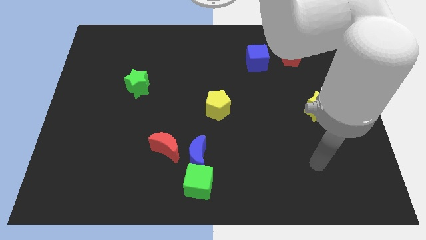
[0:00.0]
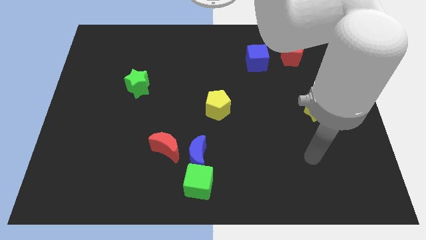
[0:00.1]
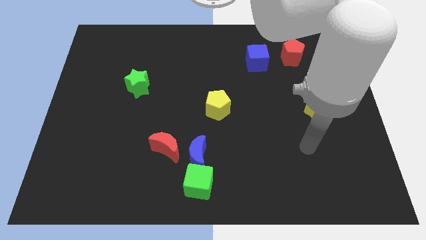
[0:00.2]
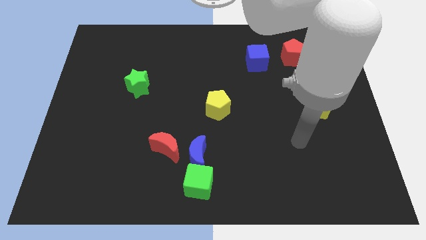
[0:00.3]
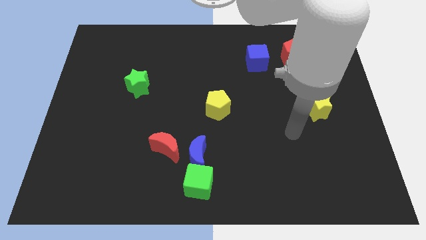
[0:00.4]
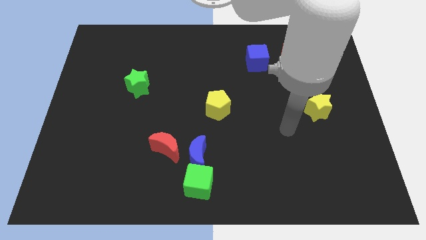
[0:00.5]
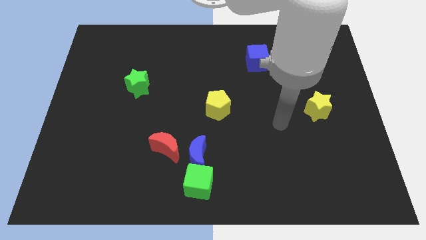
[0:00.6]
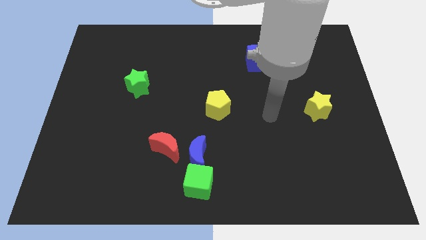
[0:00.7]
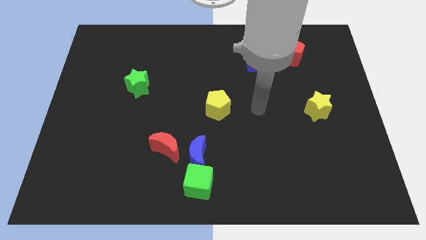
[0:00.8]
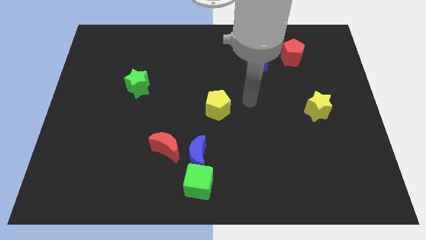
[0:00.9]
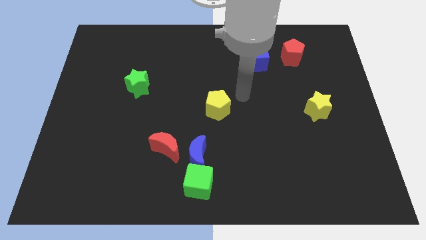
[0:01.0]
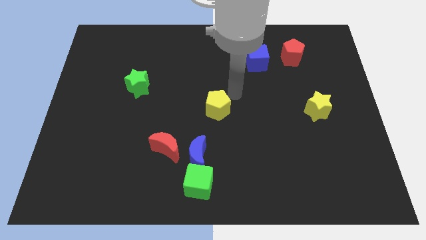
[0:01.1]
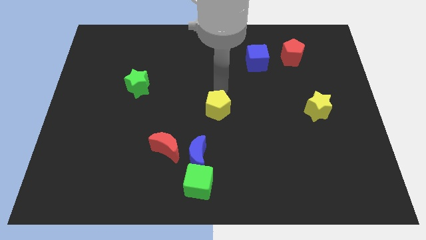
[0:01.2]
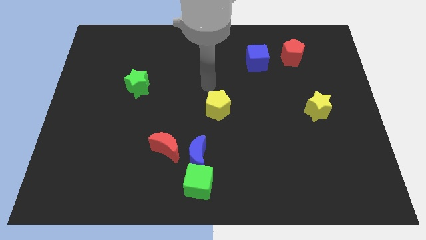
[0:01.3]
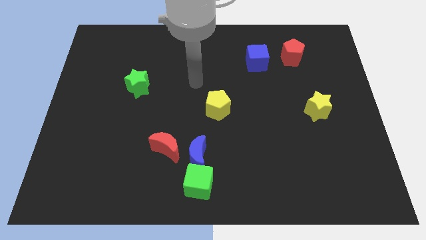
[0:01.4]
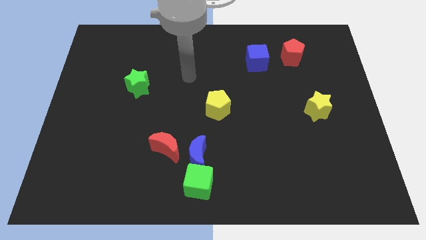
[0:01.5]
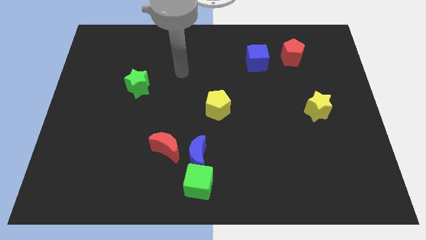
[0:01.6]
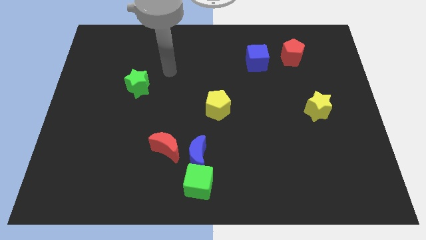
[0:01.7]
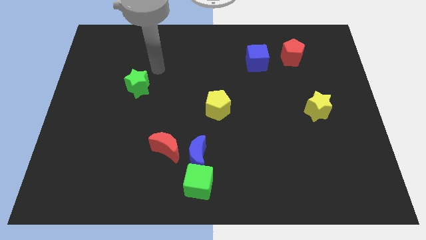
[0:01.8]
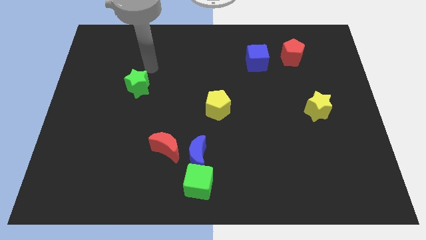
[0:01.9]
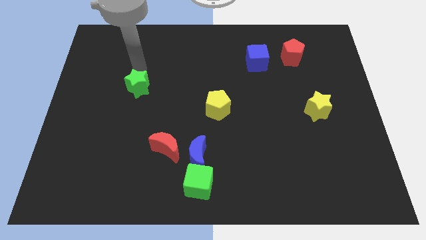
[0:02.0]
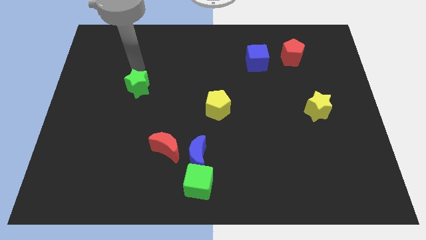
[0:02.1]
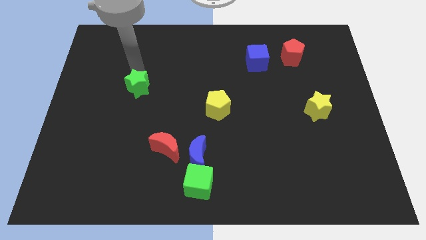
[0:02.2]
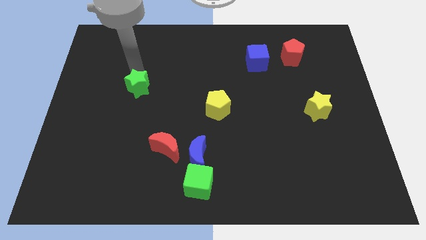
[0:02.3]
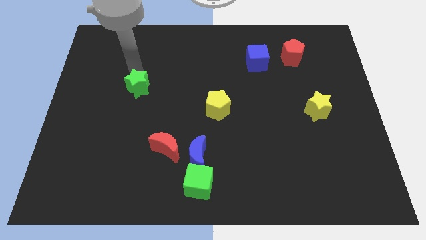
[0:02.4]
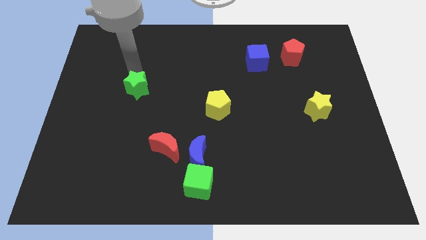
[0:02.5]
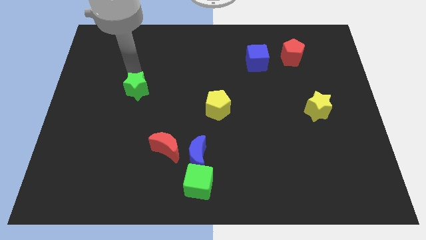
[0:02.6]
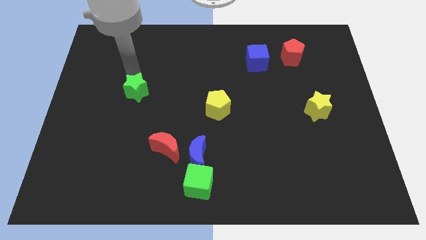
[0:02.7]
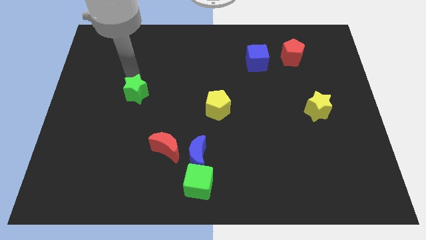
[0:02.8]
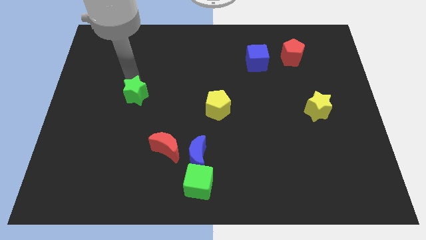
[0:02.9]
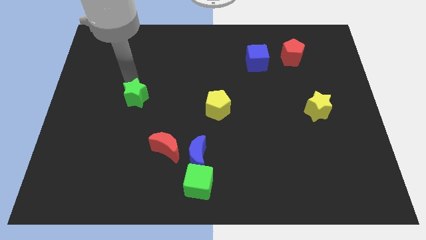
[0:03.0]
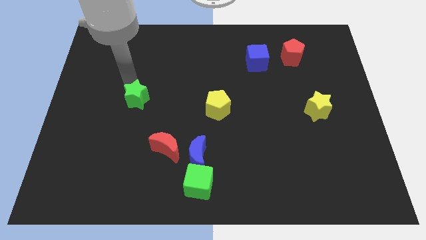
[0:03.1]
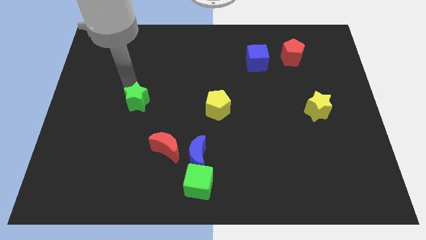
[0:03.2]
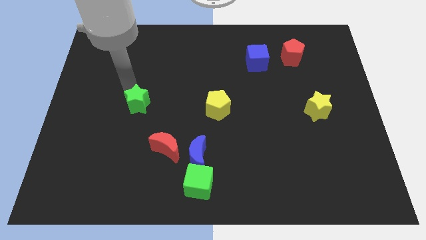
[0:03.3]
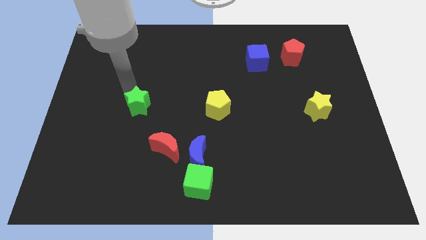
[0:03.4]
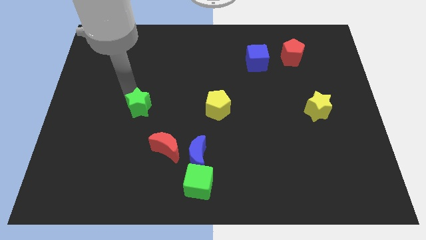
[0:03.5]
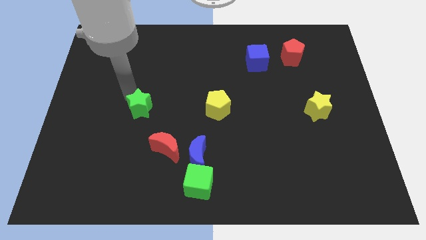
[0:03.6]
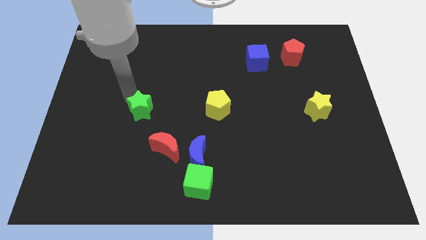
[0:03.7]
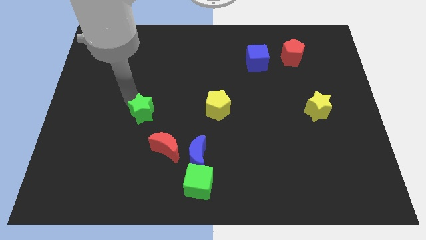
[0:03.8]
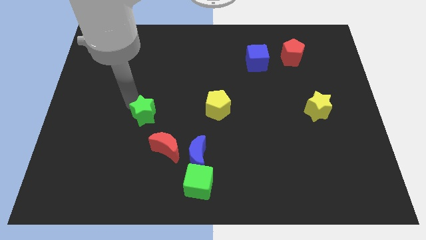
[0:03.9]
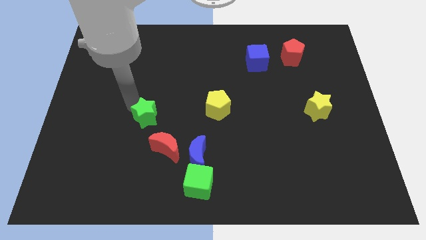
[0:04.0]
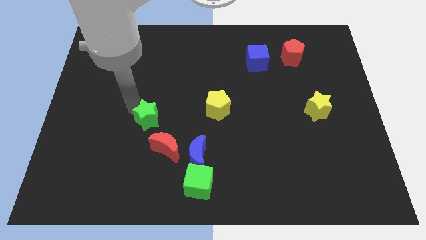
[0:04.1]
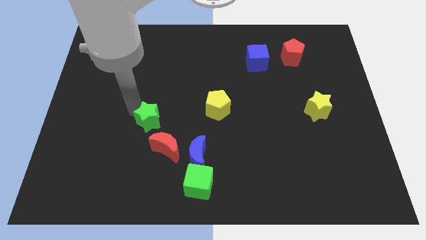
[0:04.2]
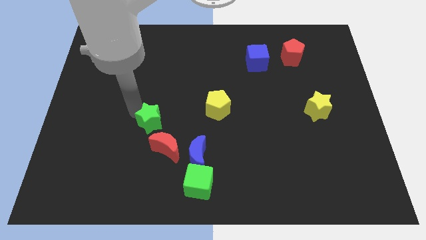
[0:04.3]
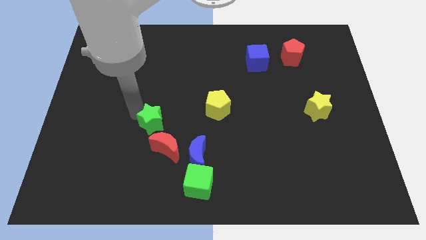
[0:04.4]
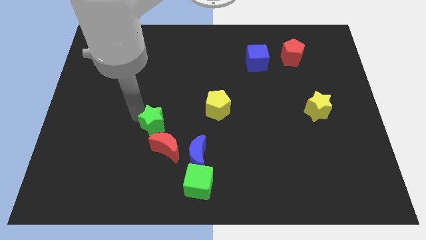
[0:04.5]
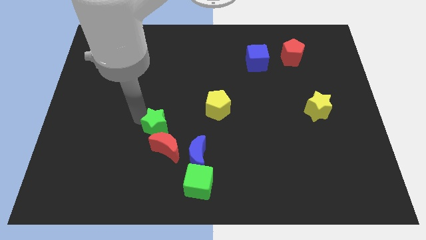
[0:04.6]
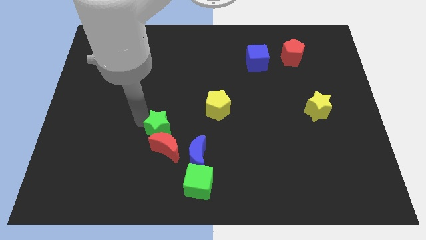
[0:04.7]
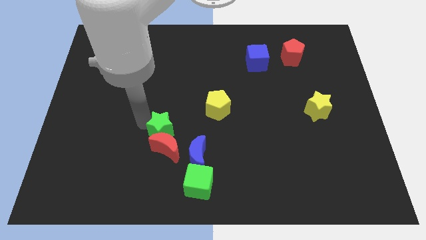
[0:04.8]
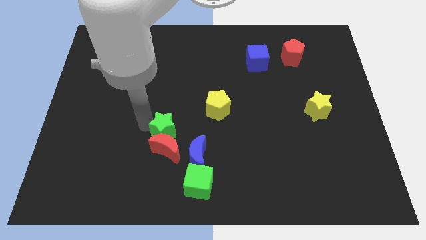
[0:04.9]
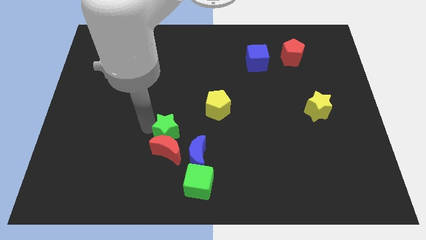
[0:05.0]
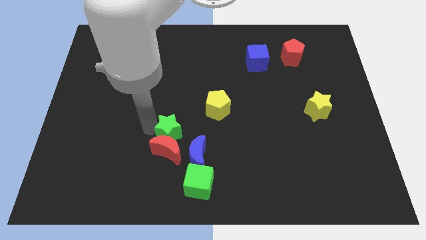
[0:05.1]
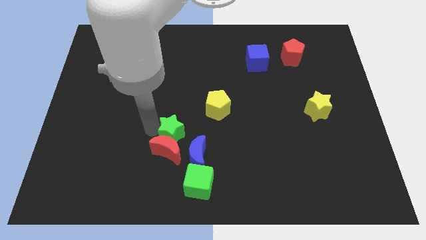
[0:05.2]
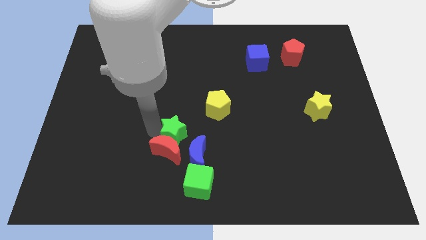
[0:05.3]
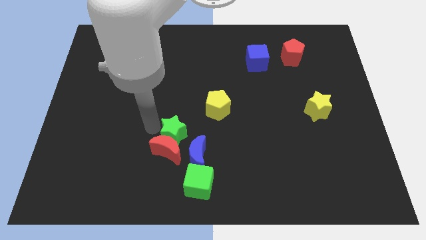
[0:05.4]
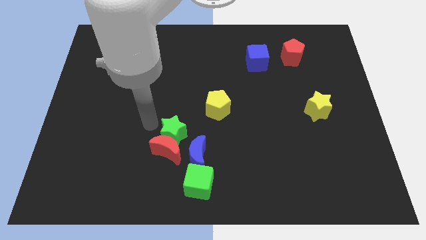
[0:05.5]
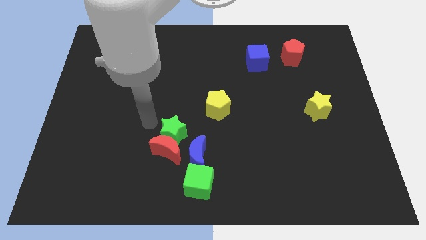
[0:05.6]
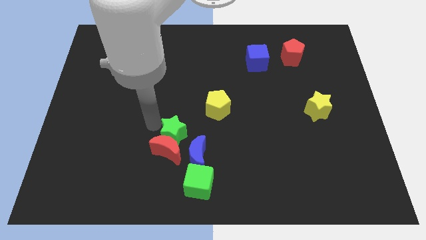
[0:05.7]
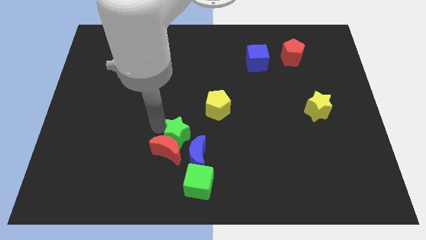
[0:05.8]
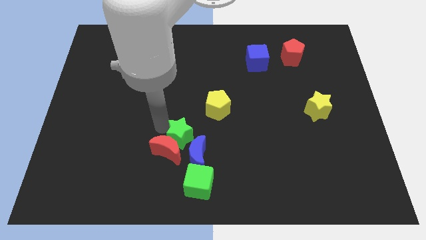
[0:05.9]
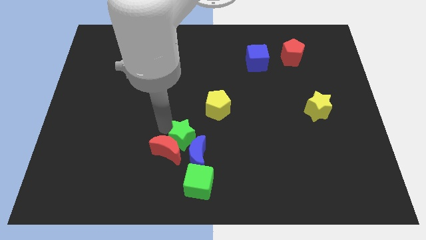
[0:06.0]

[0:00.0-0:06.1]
move the green star to the blue moon

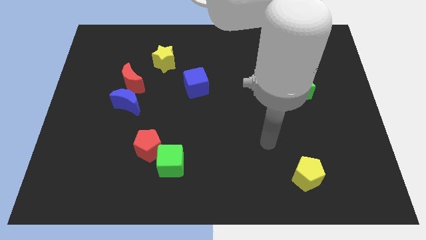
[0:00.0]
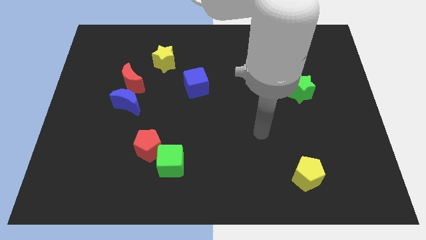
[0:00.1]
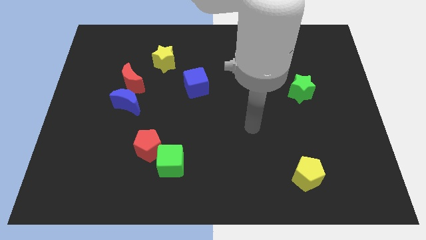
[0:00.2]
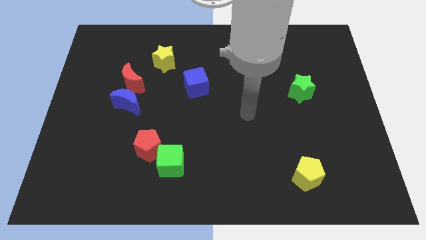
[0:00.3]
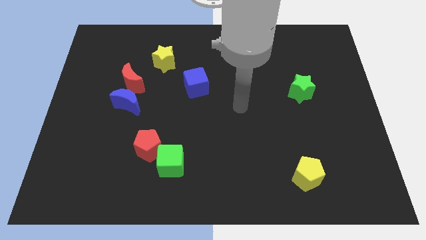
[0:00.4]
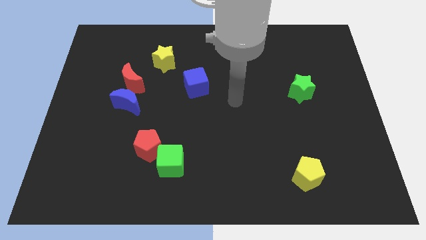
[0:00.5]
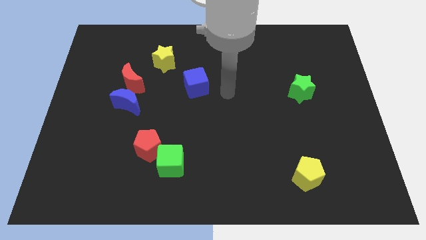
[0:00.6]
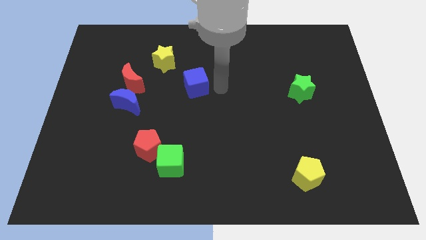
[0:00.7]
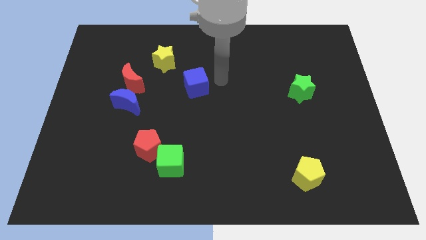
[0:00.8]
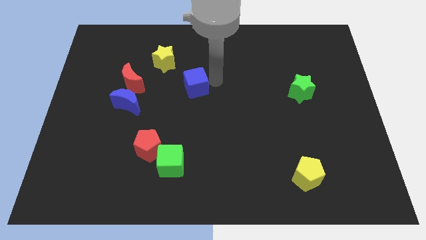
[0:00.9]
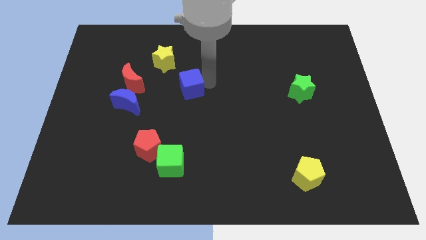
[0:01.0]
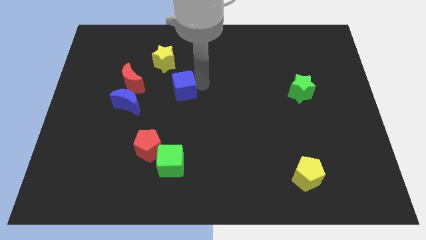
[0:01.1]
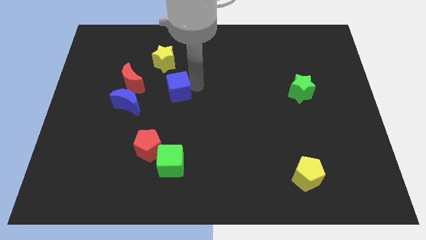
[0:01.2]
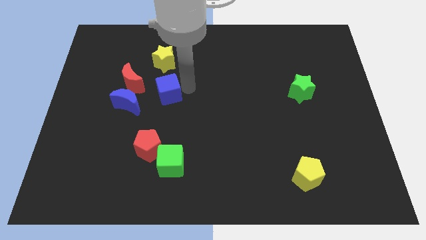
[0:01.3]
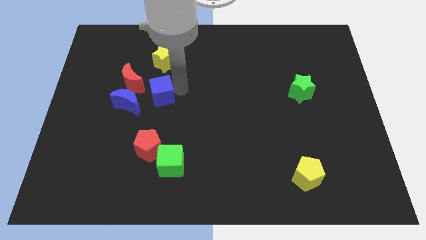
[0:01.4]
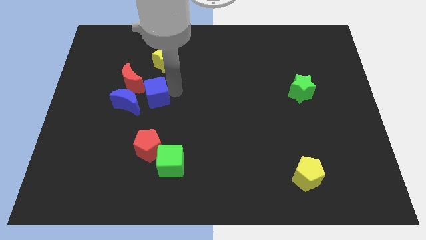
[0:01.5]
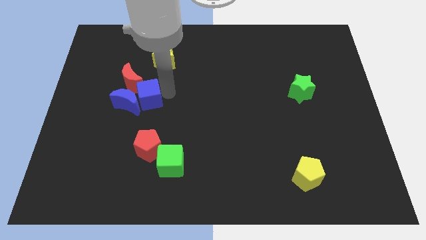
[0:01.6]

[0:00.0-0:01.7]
move the blue cube next to the blue moon

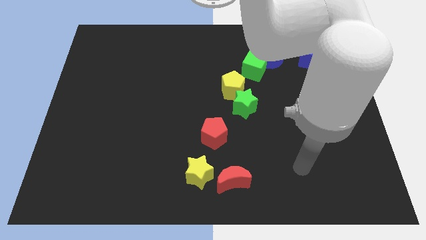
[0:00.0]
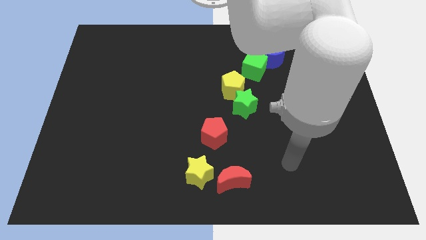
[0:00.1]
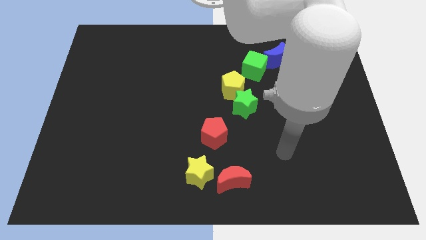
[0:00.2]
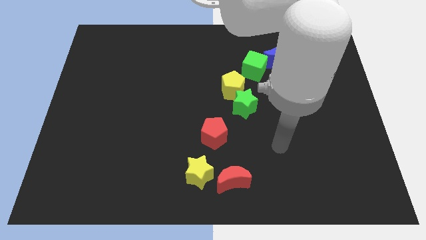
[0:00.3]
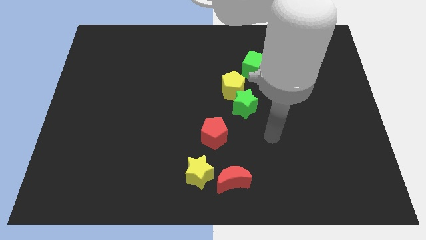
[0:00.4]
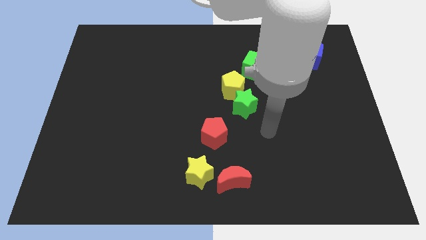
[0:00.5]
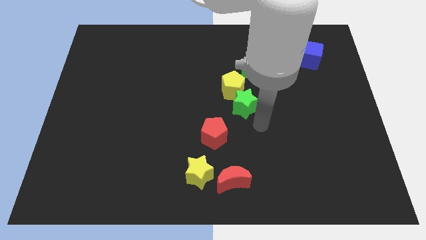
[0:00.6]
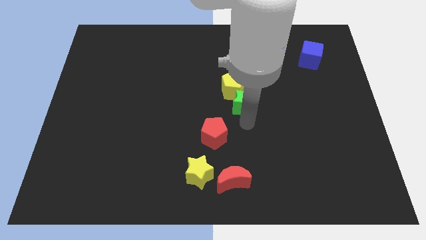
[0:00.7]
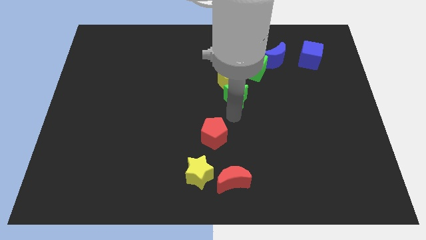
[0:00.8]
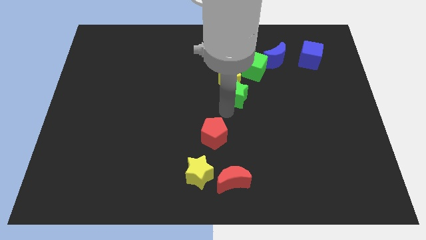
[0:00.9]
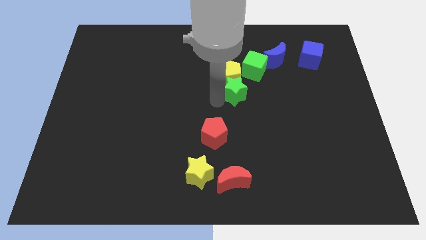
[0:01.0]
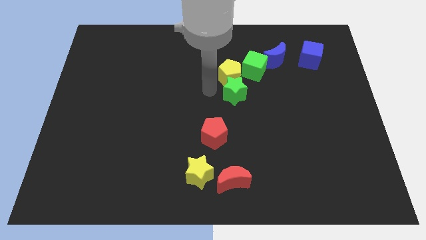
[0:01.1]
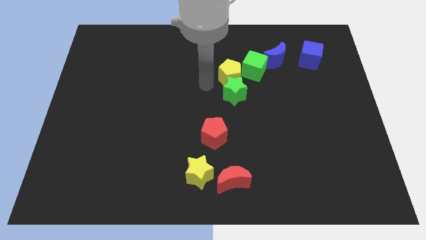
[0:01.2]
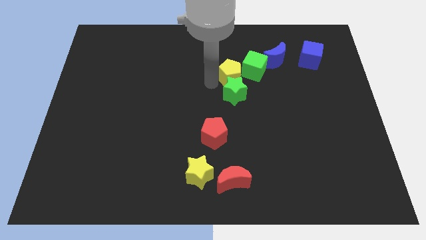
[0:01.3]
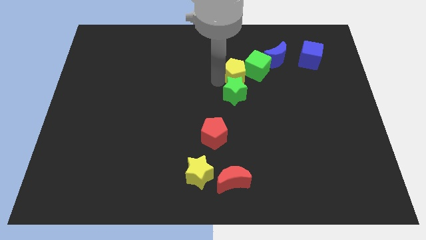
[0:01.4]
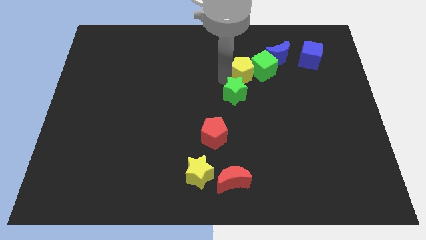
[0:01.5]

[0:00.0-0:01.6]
slide the yellow pentagon next to the green cube
